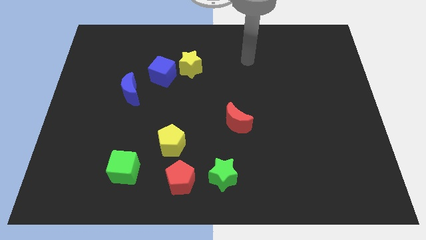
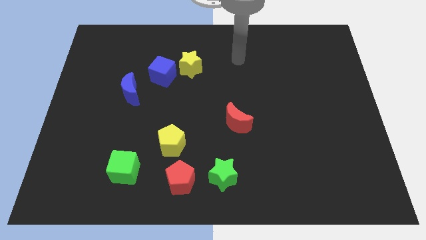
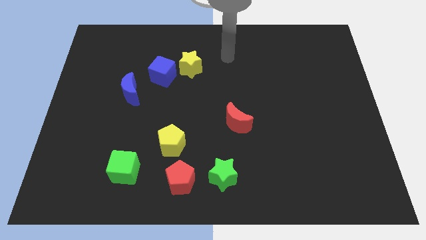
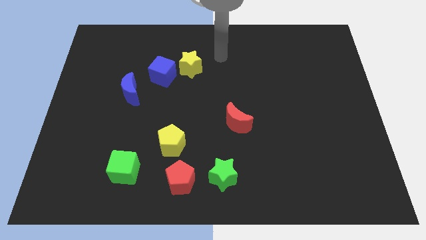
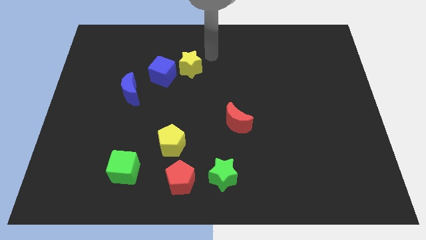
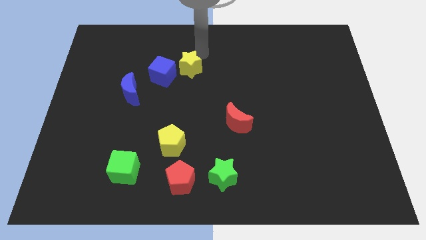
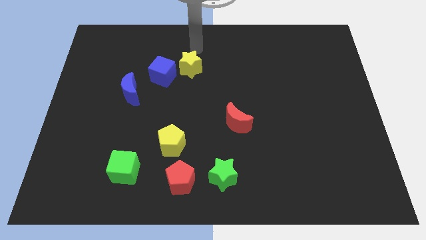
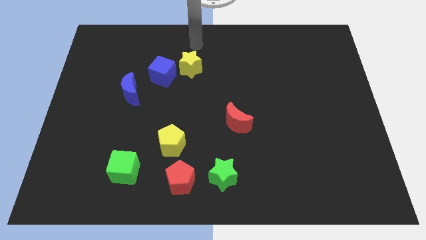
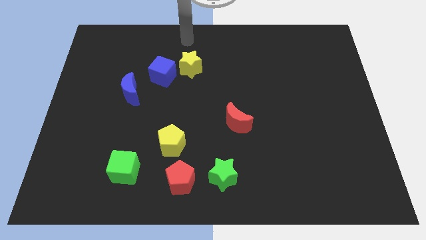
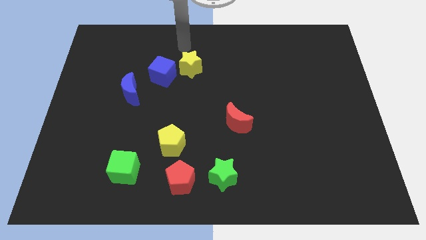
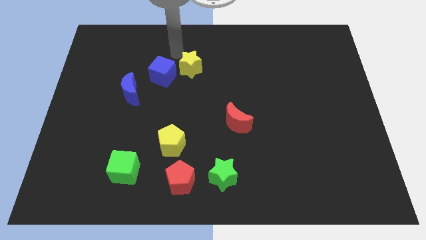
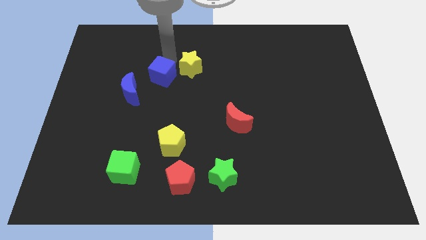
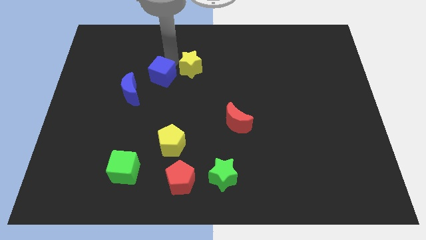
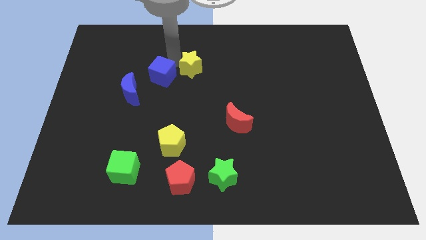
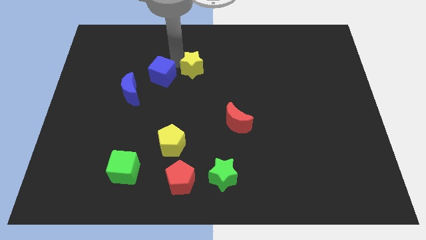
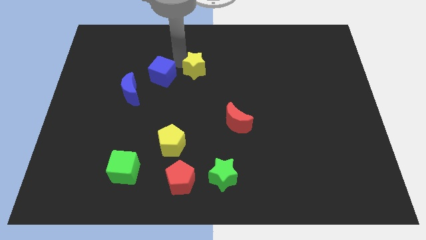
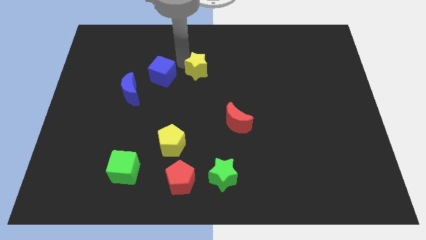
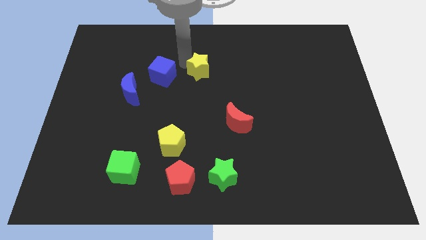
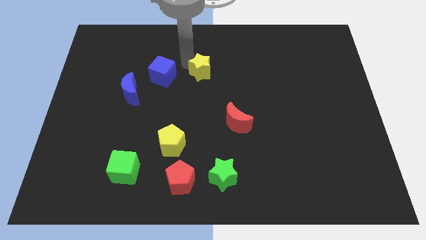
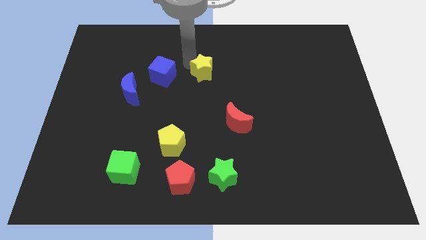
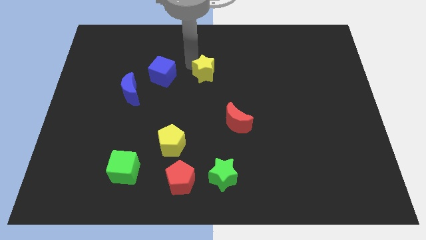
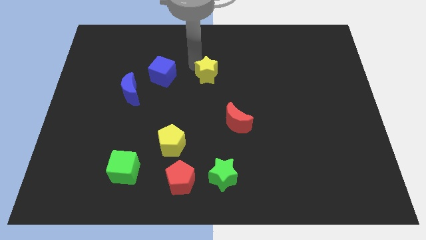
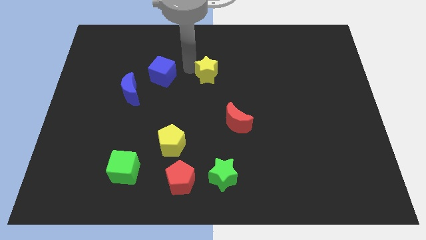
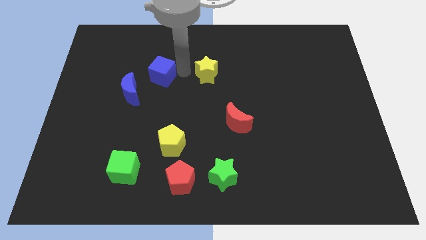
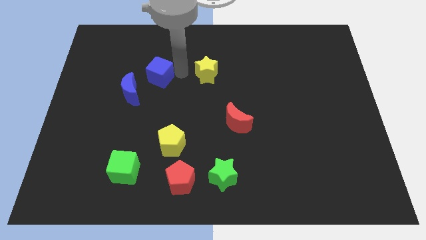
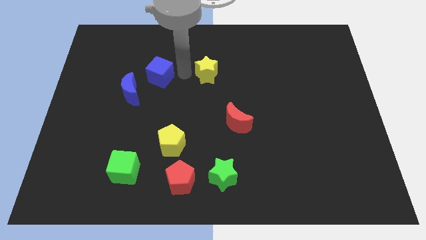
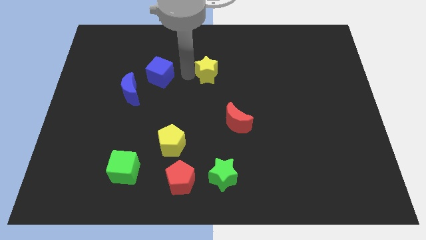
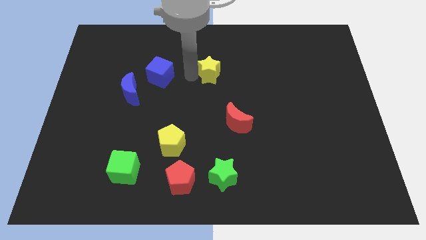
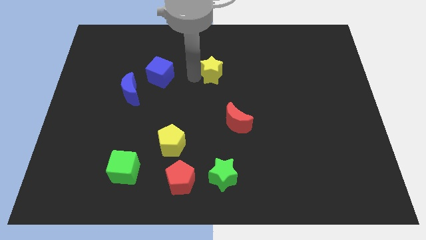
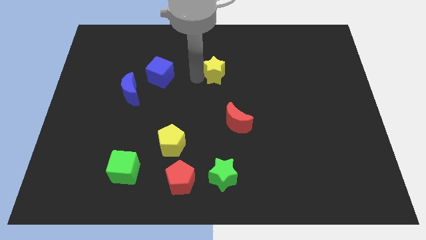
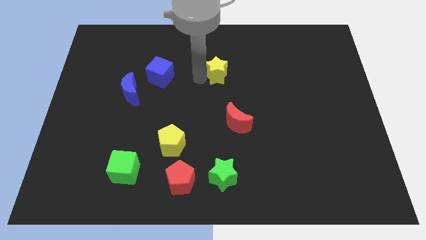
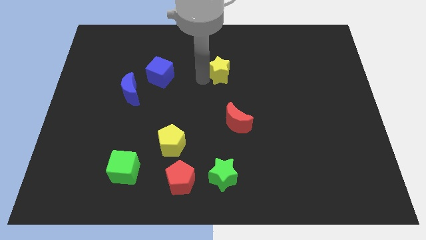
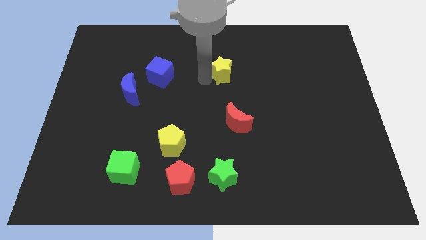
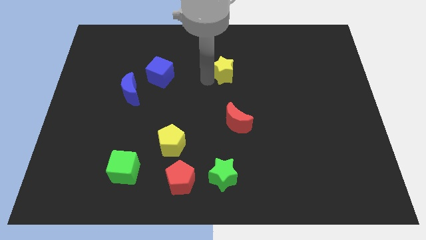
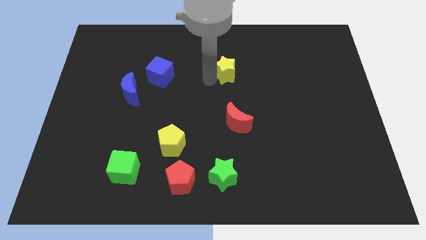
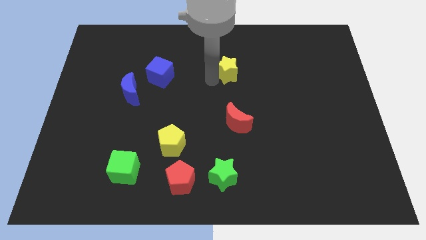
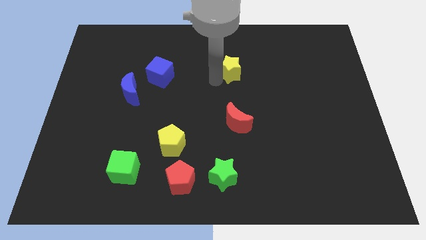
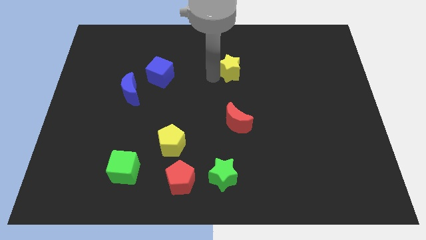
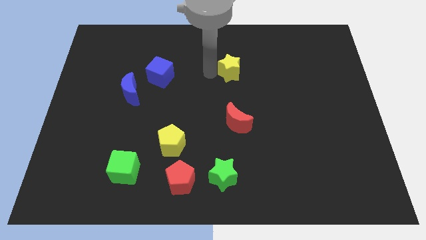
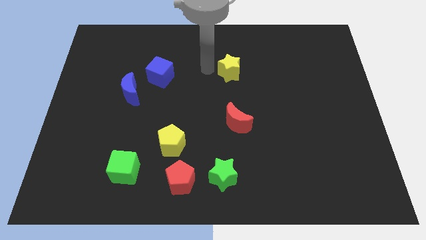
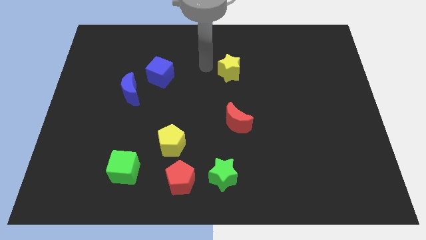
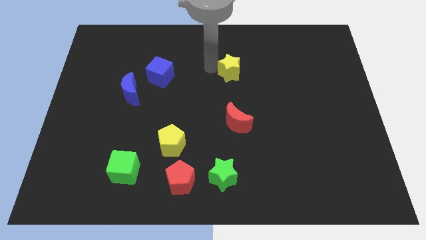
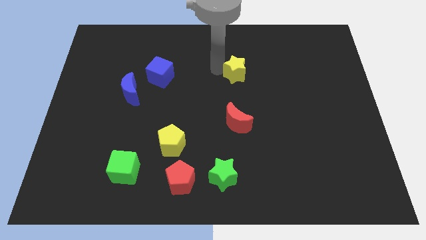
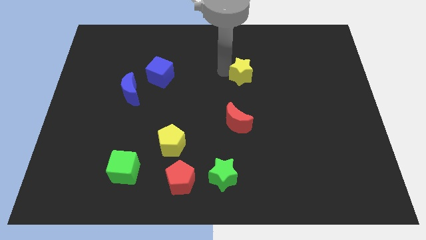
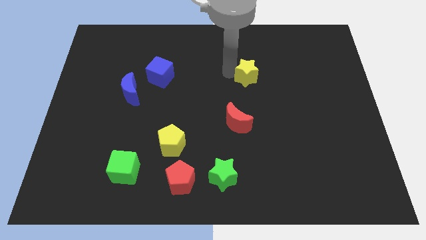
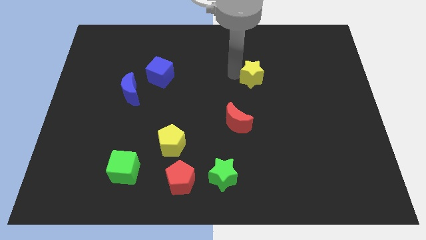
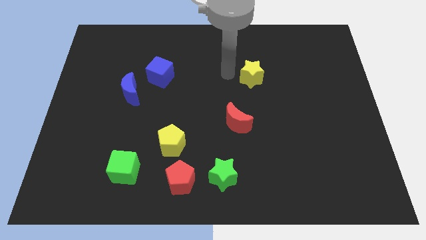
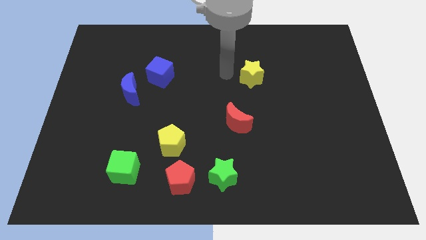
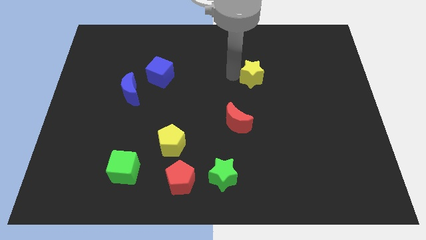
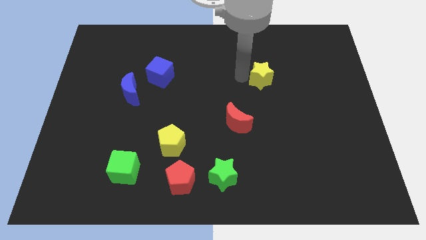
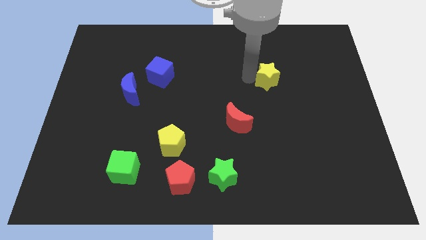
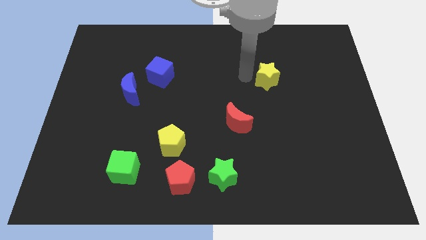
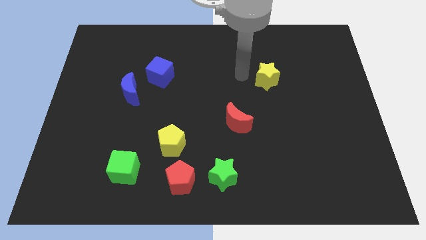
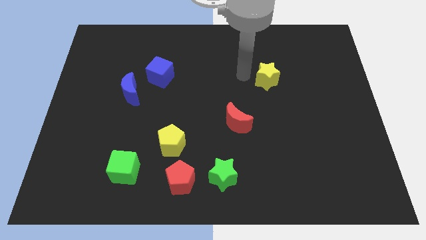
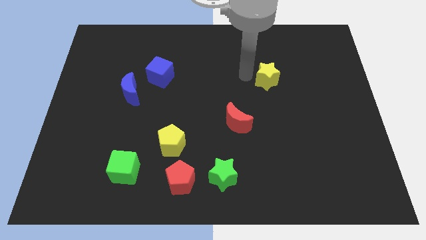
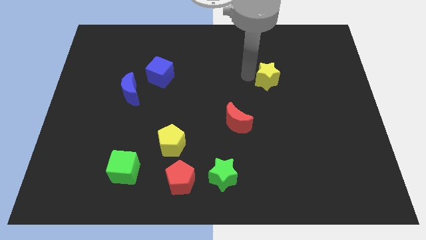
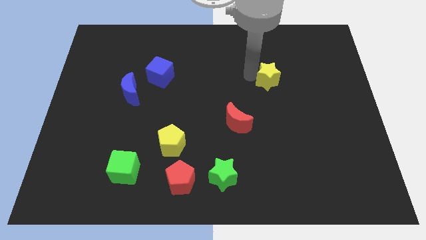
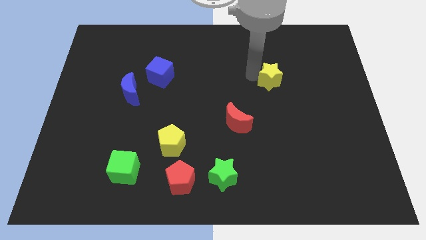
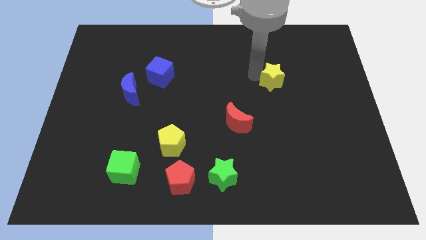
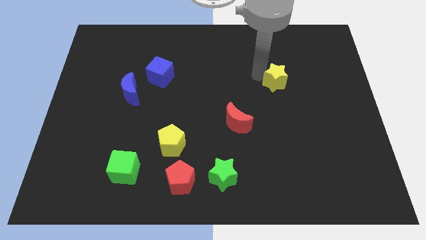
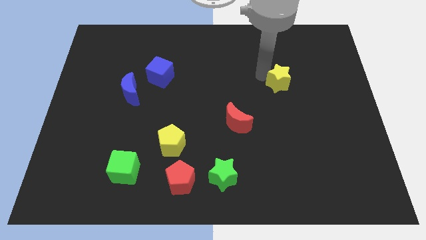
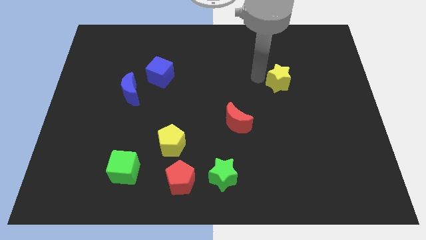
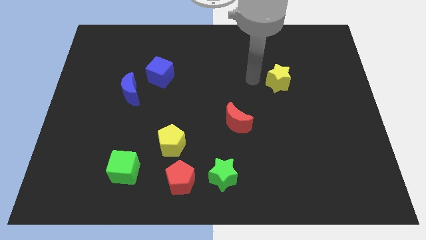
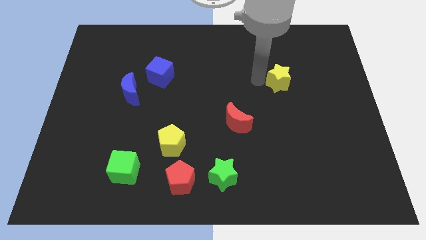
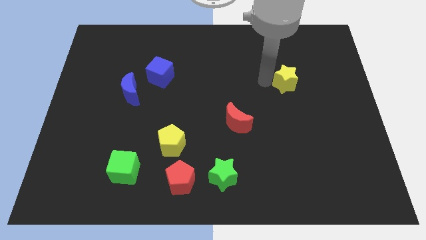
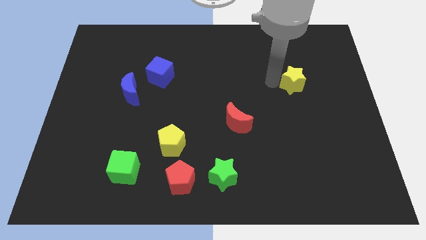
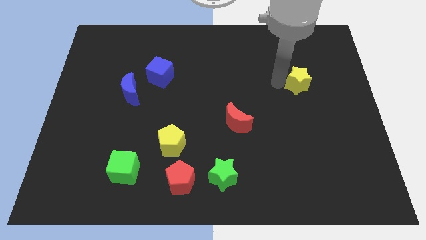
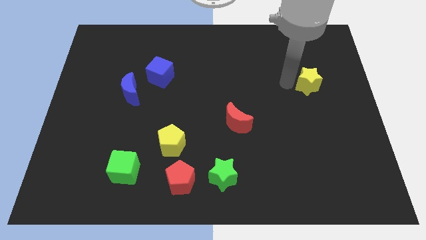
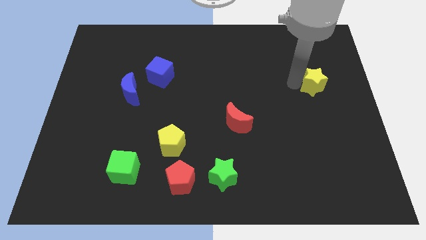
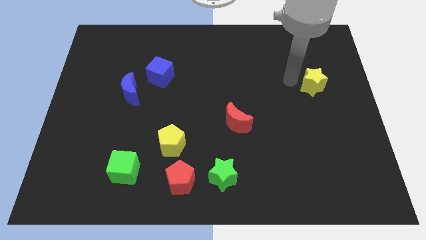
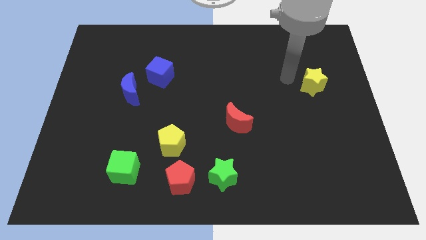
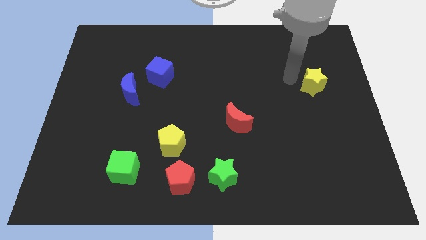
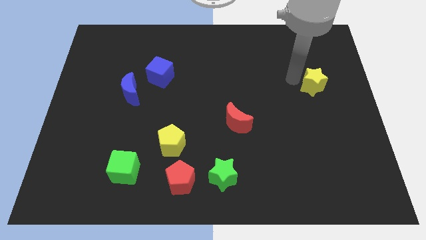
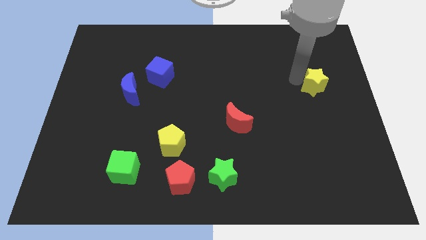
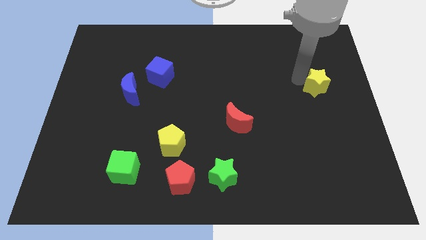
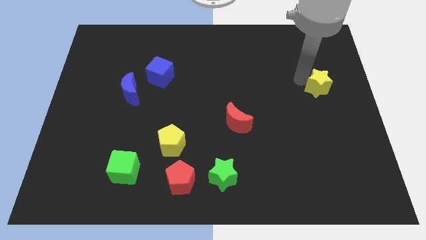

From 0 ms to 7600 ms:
slide the yellow star to the right side of the board
